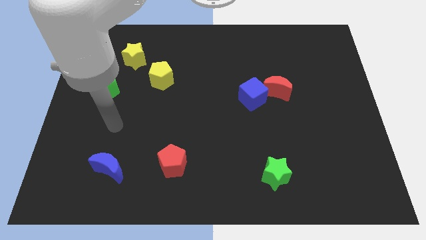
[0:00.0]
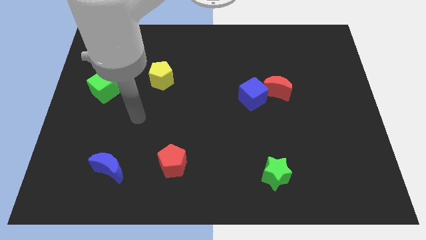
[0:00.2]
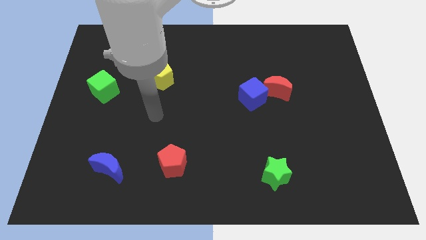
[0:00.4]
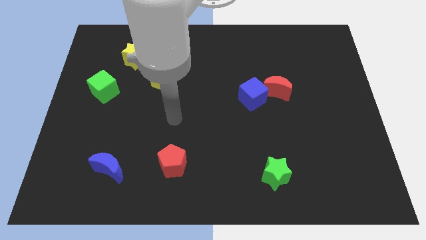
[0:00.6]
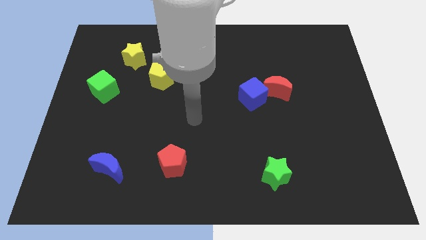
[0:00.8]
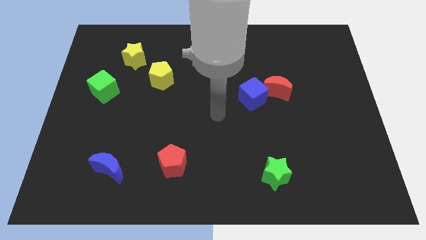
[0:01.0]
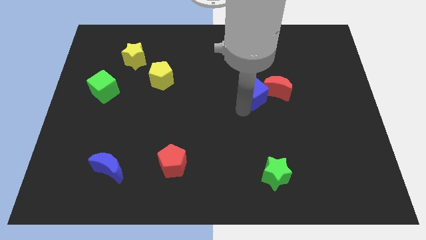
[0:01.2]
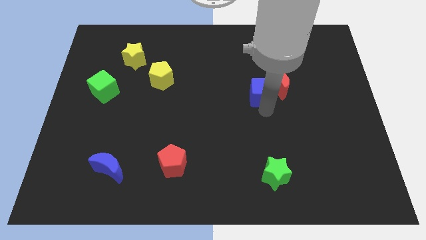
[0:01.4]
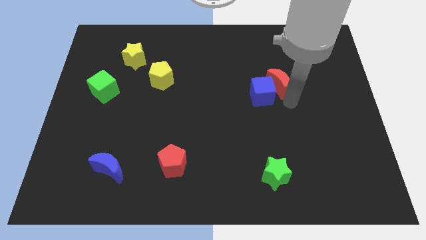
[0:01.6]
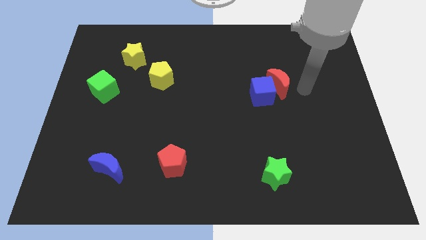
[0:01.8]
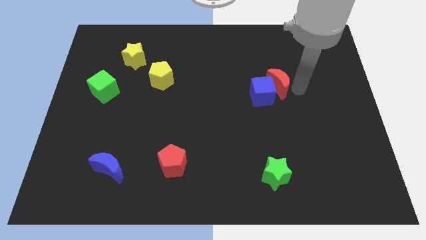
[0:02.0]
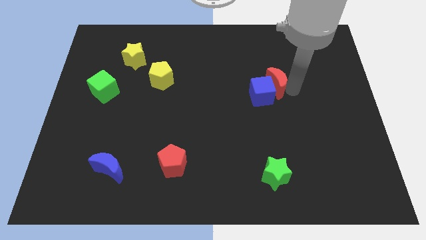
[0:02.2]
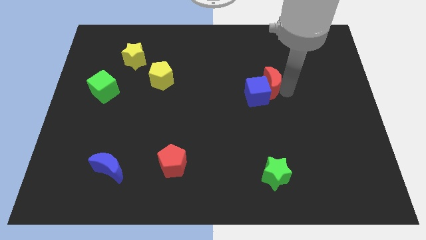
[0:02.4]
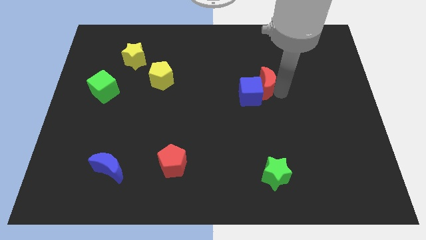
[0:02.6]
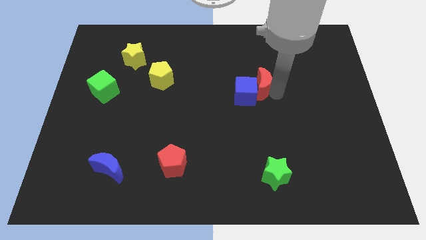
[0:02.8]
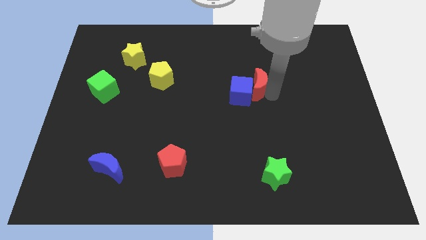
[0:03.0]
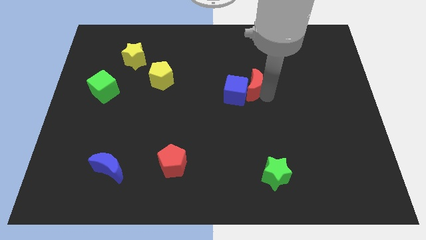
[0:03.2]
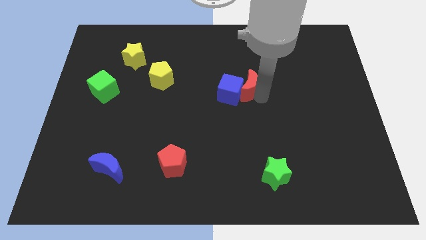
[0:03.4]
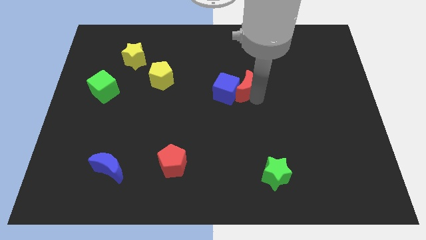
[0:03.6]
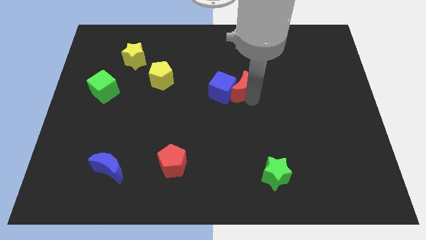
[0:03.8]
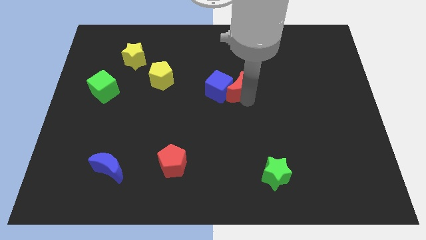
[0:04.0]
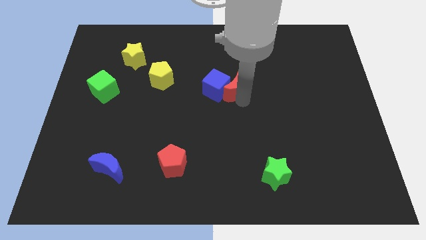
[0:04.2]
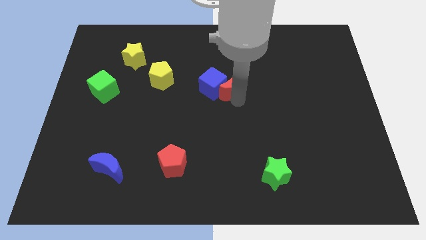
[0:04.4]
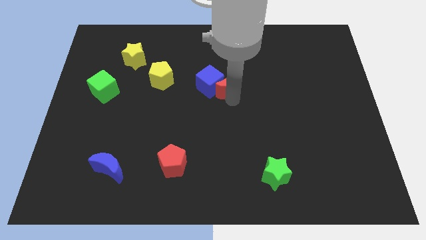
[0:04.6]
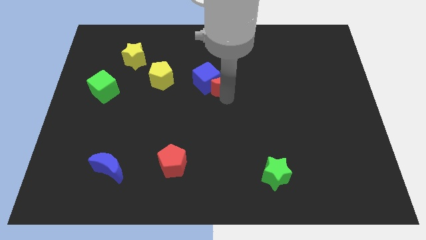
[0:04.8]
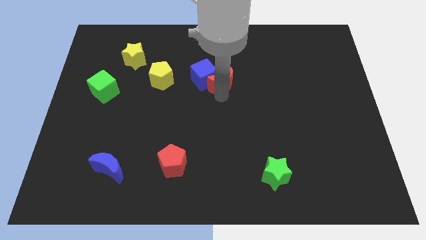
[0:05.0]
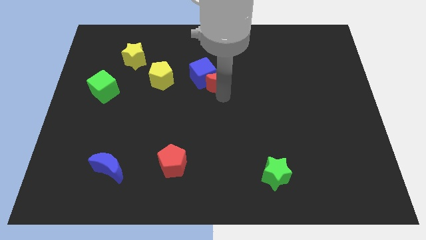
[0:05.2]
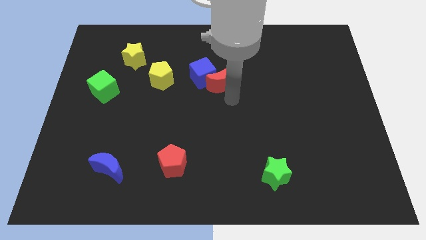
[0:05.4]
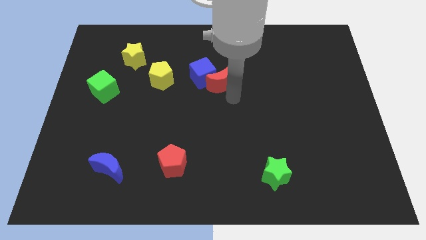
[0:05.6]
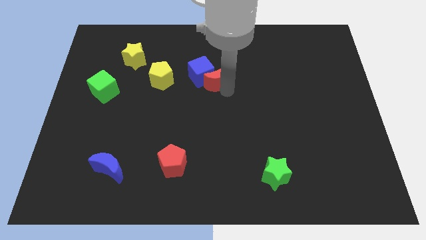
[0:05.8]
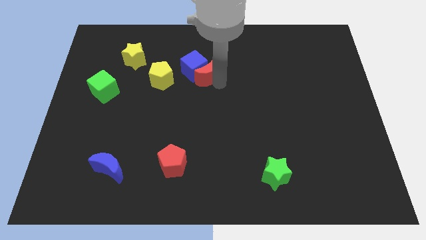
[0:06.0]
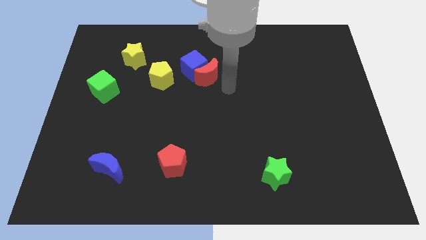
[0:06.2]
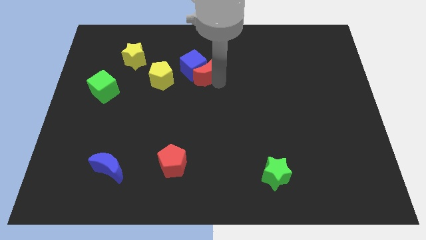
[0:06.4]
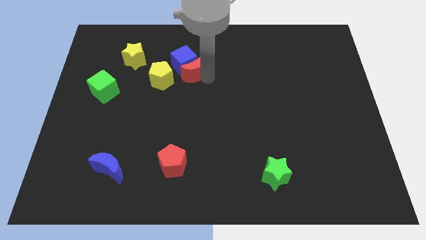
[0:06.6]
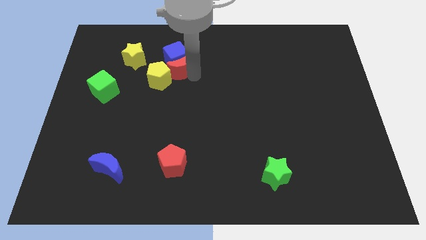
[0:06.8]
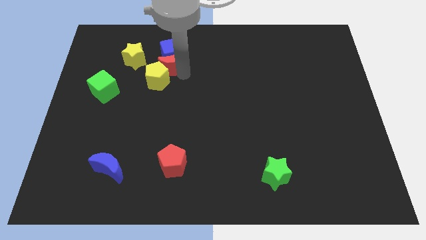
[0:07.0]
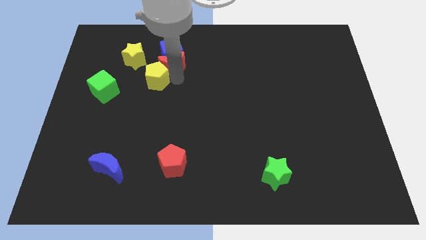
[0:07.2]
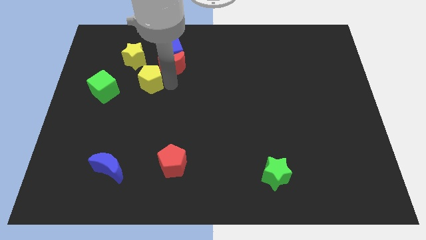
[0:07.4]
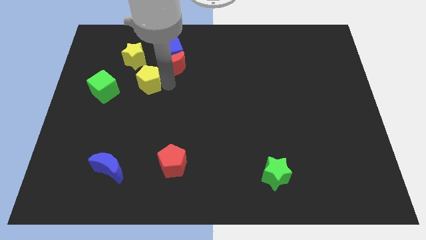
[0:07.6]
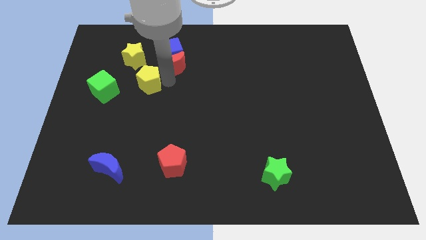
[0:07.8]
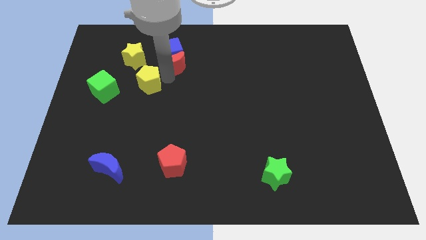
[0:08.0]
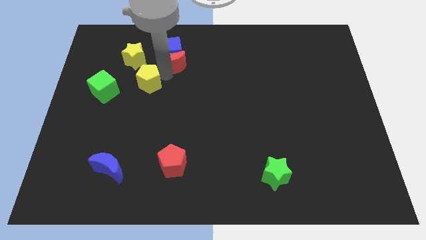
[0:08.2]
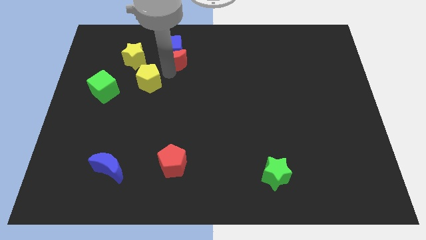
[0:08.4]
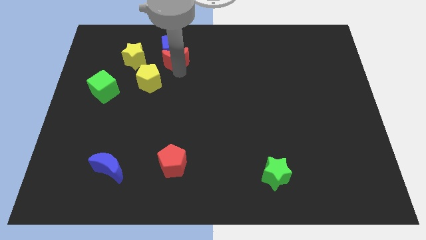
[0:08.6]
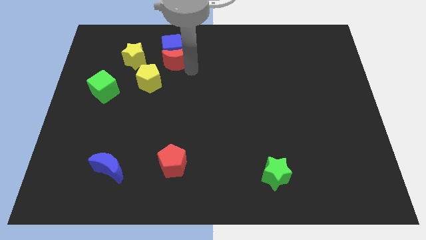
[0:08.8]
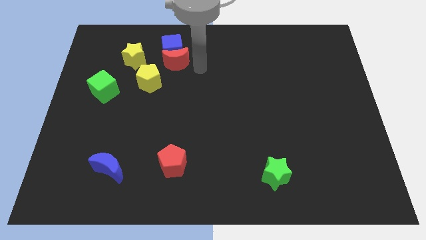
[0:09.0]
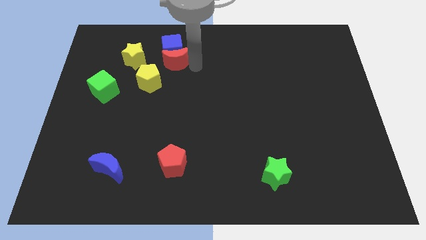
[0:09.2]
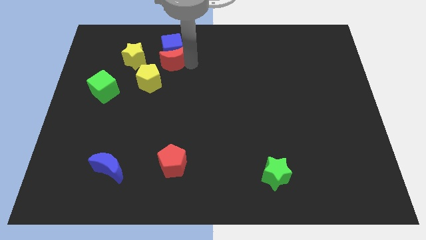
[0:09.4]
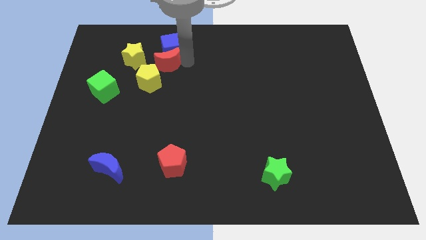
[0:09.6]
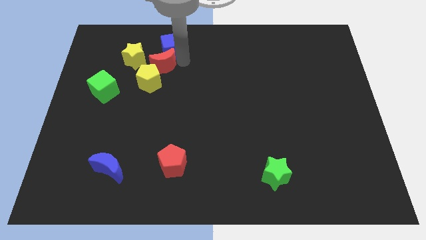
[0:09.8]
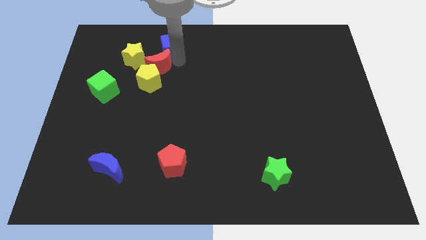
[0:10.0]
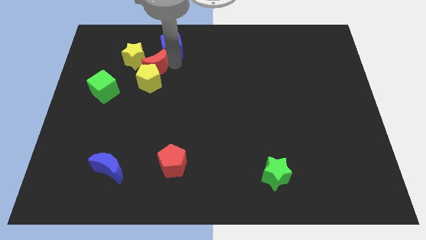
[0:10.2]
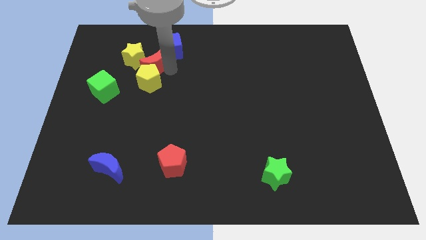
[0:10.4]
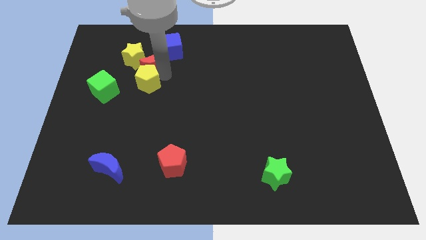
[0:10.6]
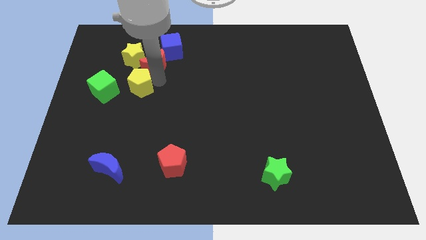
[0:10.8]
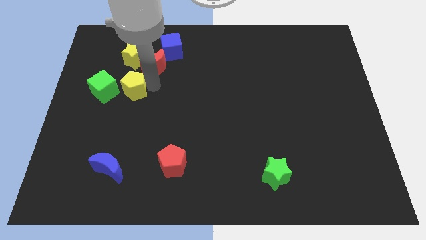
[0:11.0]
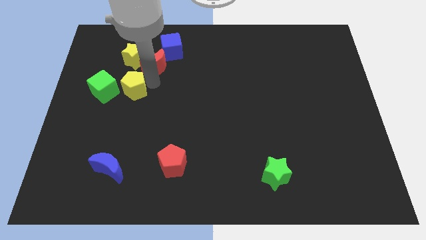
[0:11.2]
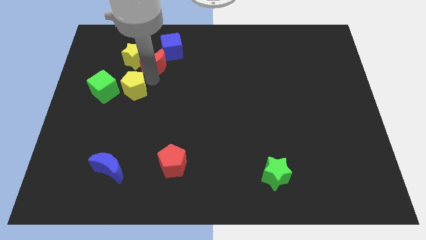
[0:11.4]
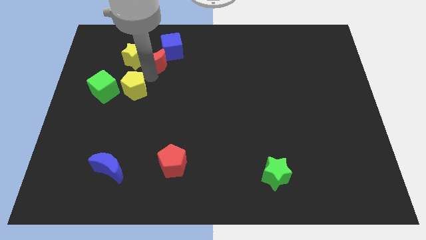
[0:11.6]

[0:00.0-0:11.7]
put the red moon next to the yellow star
